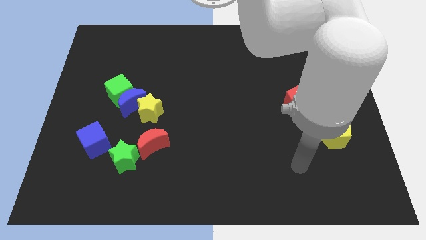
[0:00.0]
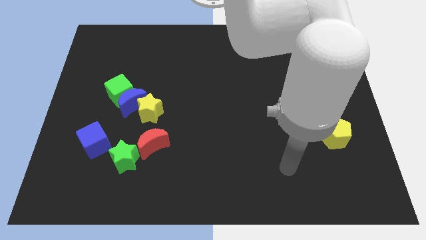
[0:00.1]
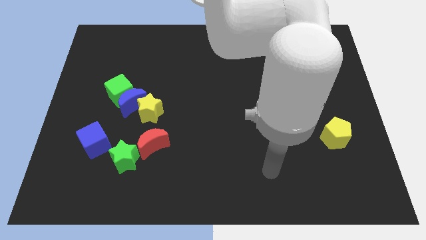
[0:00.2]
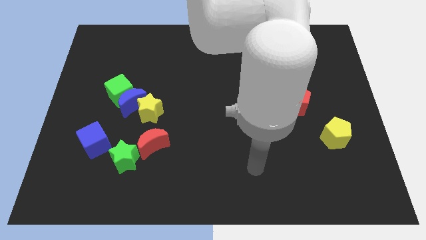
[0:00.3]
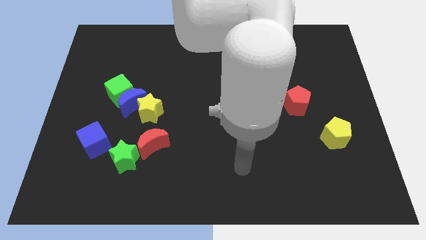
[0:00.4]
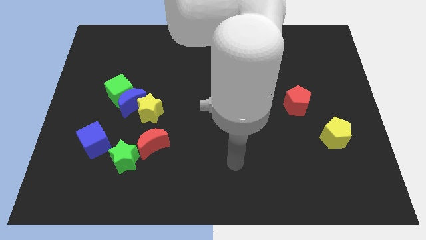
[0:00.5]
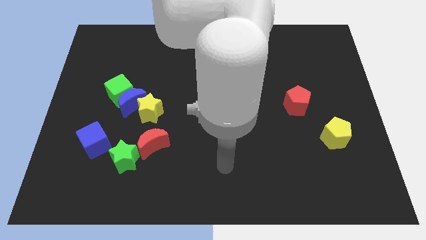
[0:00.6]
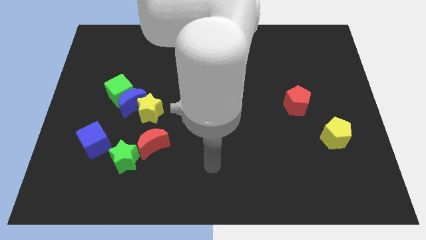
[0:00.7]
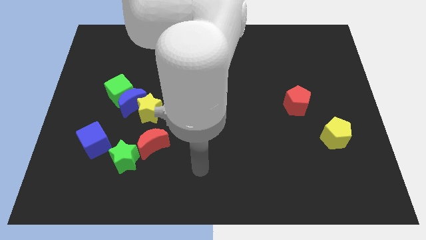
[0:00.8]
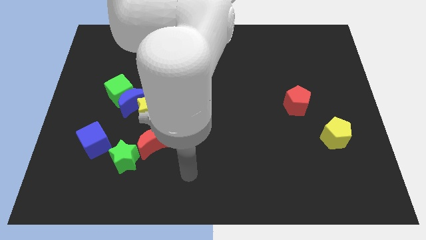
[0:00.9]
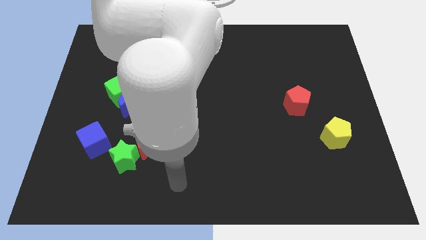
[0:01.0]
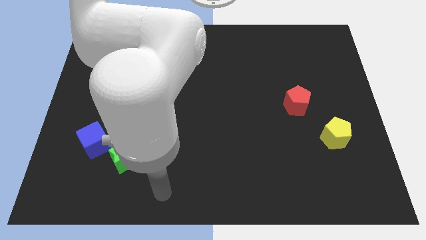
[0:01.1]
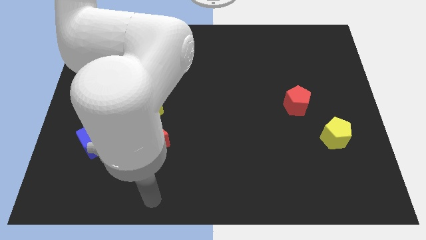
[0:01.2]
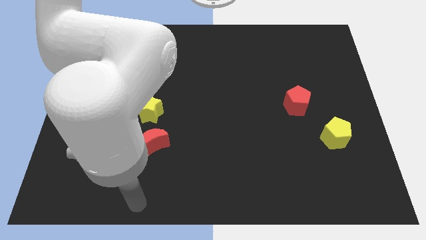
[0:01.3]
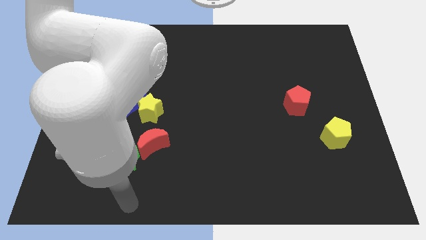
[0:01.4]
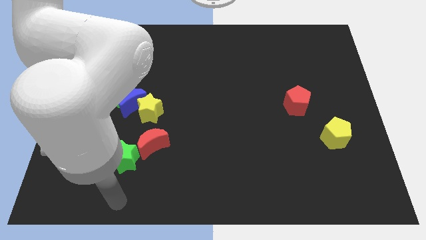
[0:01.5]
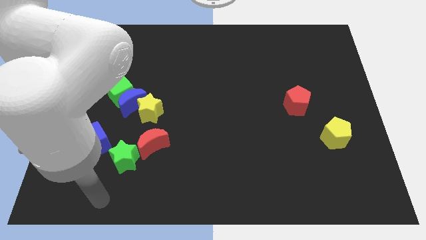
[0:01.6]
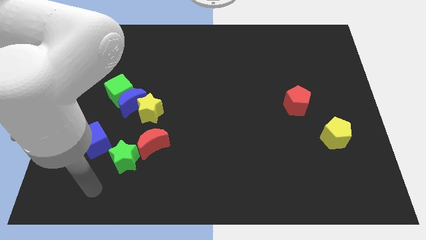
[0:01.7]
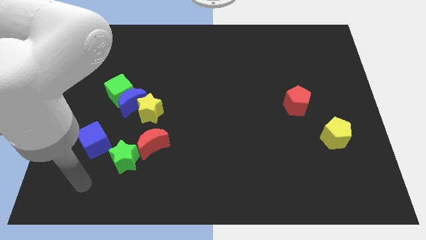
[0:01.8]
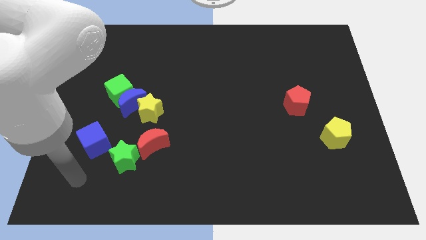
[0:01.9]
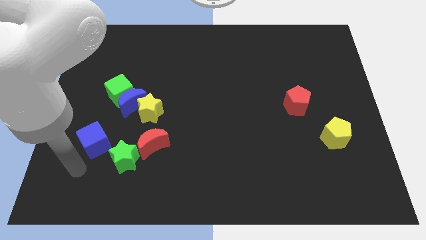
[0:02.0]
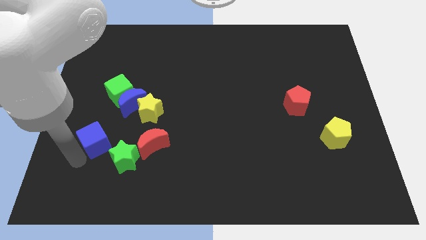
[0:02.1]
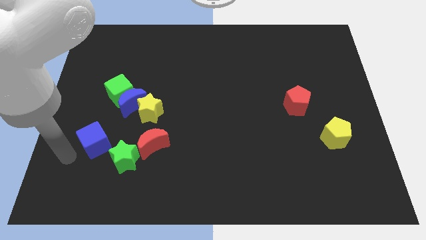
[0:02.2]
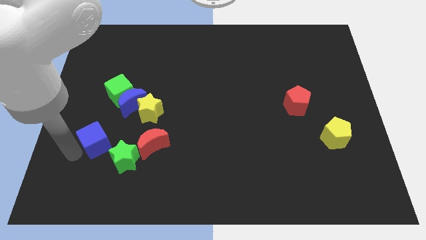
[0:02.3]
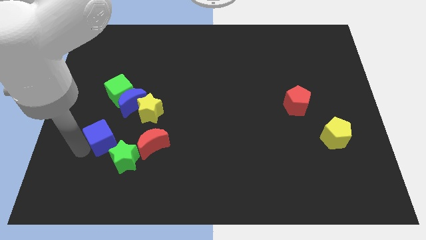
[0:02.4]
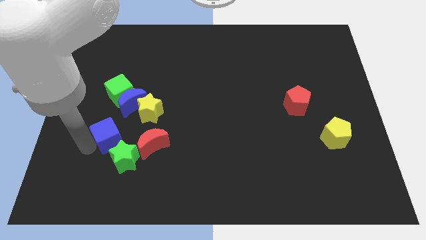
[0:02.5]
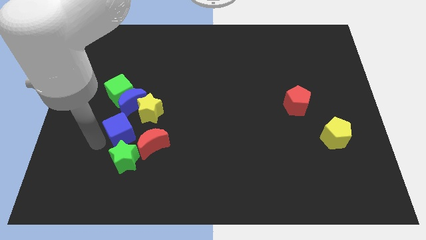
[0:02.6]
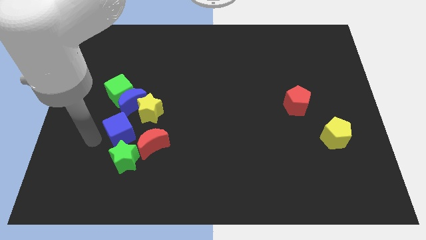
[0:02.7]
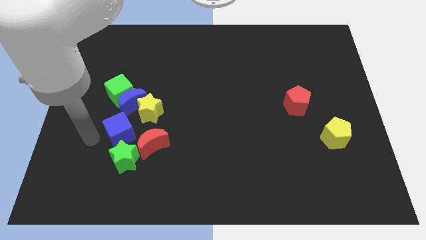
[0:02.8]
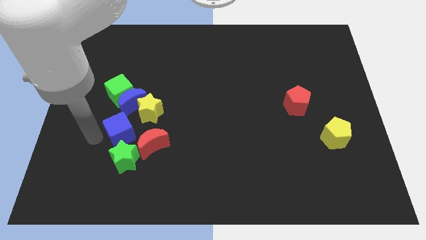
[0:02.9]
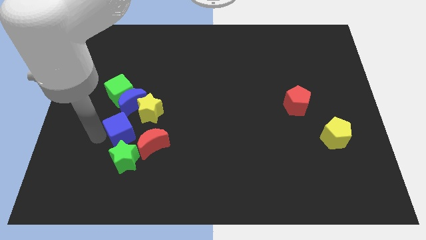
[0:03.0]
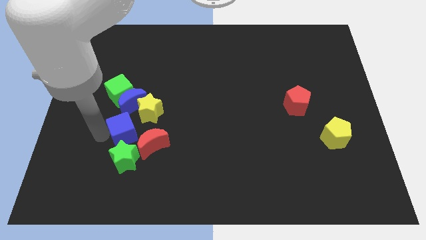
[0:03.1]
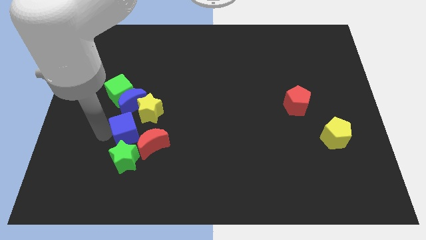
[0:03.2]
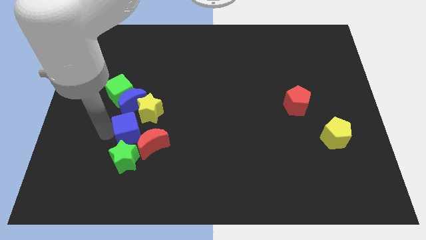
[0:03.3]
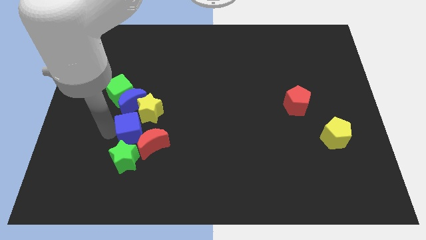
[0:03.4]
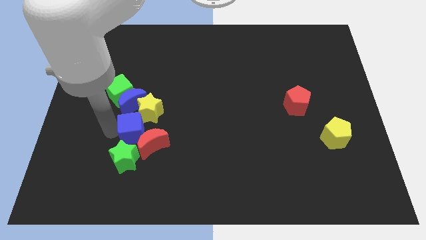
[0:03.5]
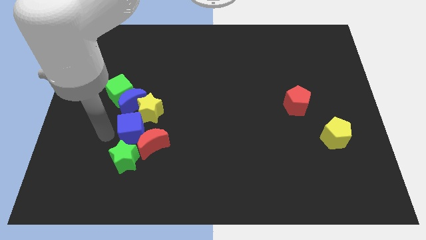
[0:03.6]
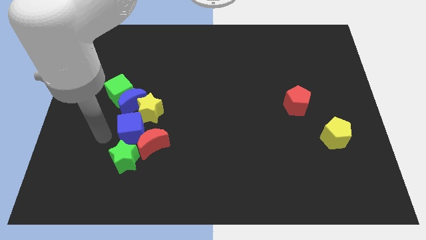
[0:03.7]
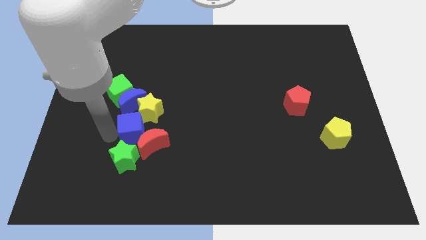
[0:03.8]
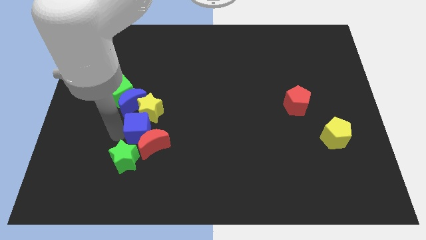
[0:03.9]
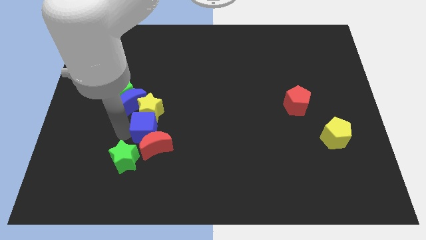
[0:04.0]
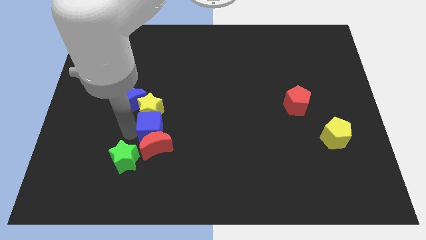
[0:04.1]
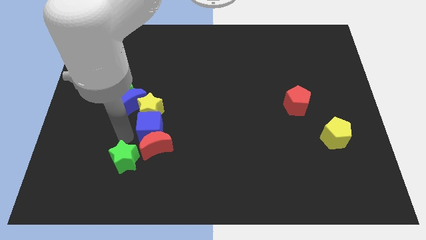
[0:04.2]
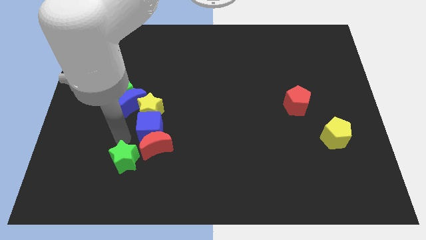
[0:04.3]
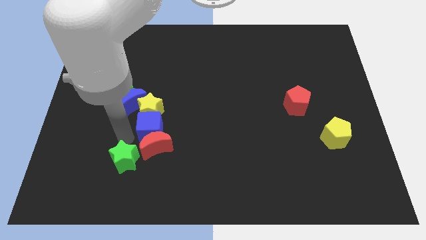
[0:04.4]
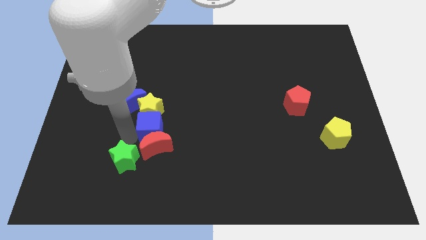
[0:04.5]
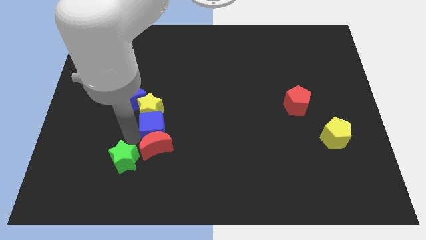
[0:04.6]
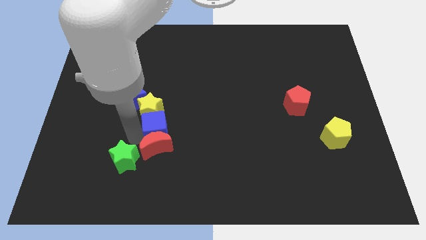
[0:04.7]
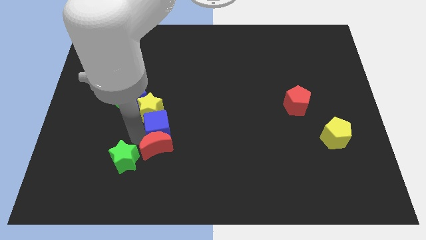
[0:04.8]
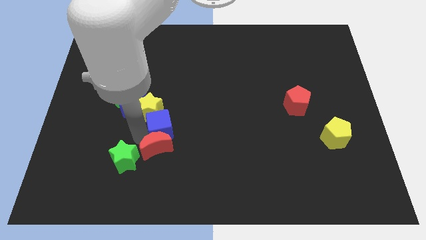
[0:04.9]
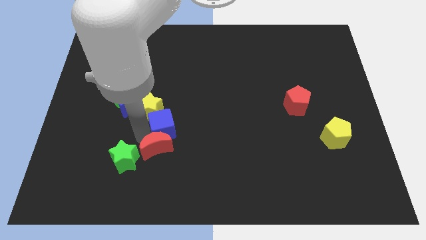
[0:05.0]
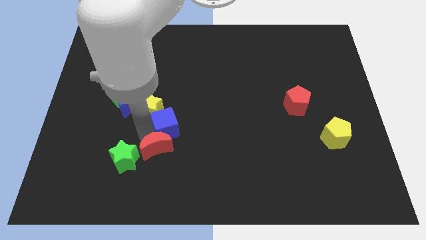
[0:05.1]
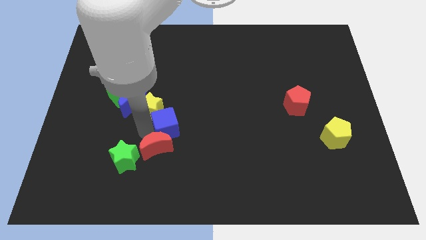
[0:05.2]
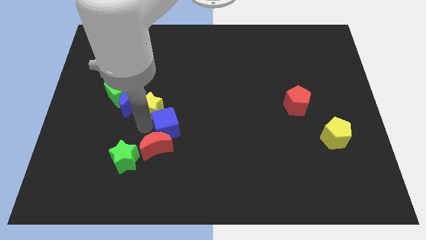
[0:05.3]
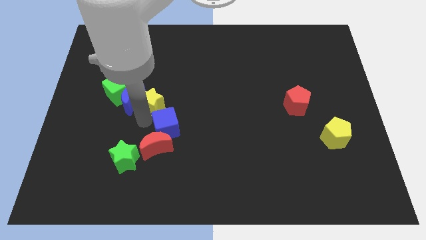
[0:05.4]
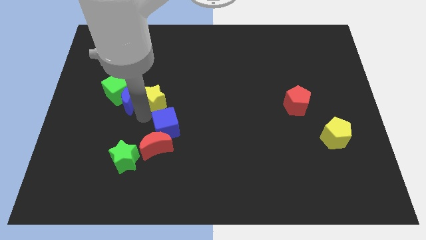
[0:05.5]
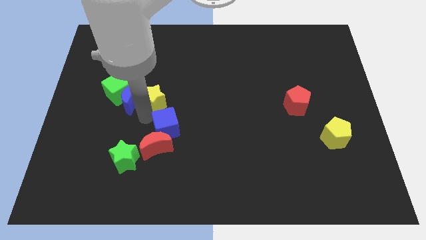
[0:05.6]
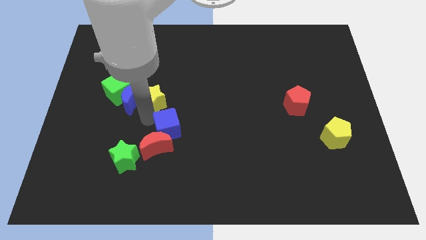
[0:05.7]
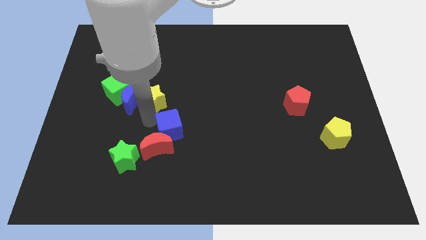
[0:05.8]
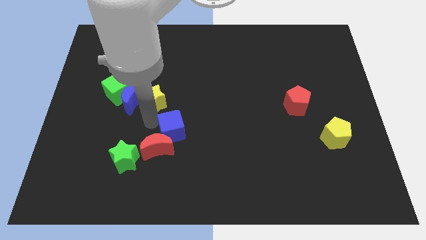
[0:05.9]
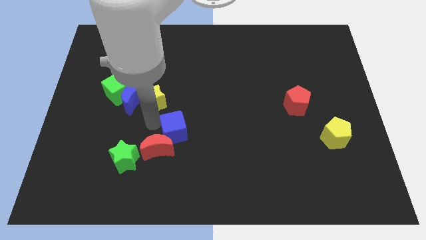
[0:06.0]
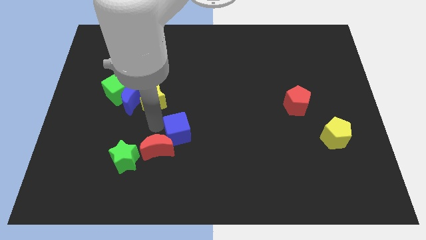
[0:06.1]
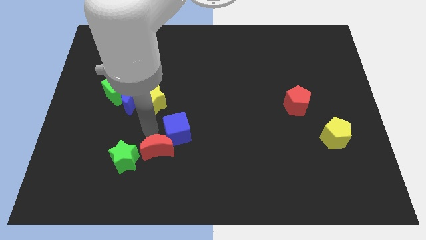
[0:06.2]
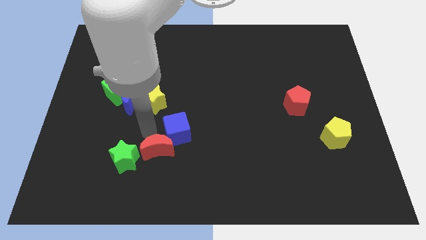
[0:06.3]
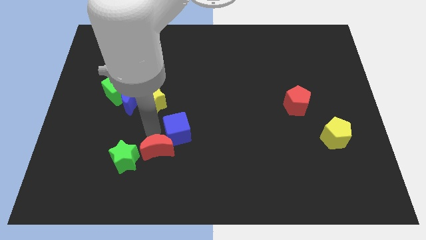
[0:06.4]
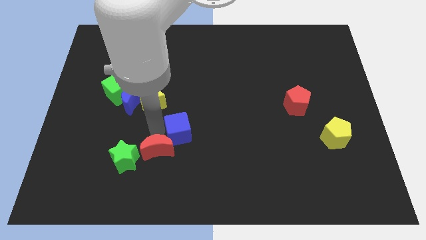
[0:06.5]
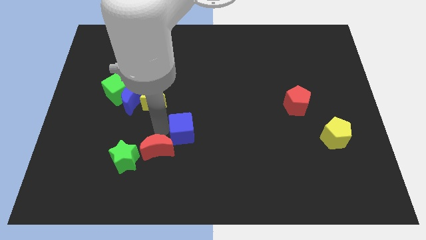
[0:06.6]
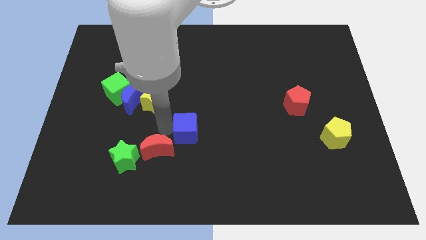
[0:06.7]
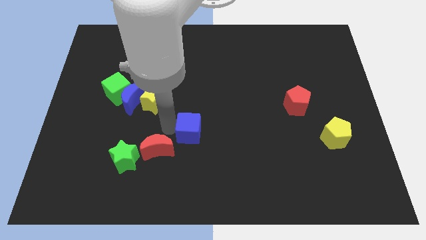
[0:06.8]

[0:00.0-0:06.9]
move the blue cube right
